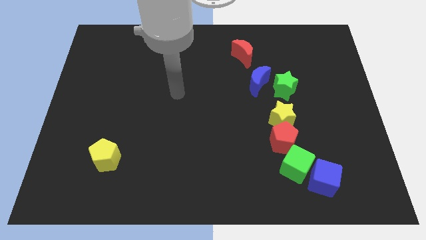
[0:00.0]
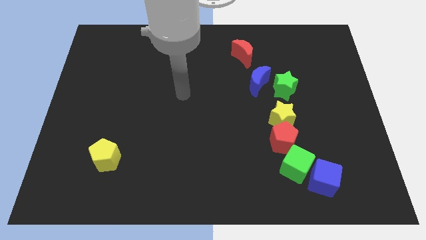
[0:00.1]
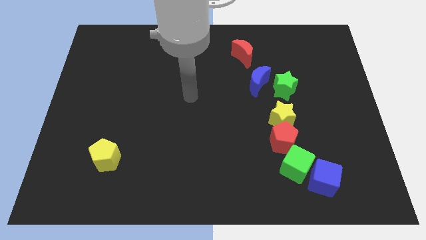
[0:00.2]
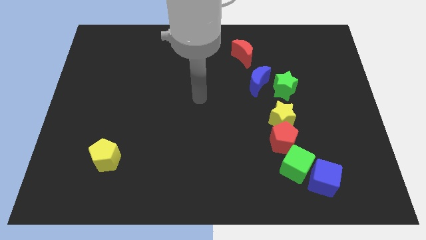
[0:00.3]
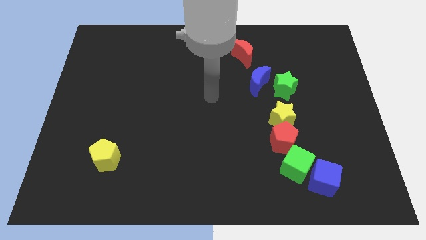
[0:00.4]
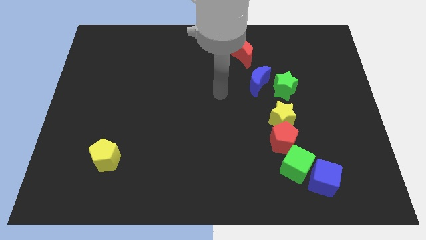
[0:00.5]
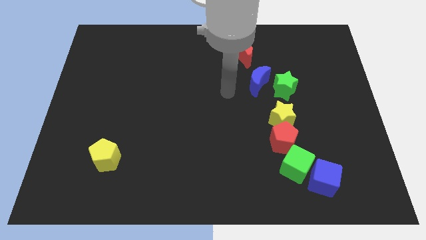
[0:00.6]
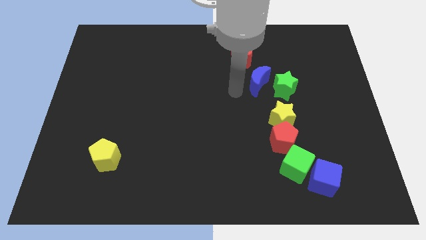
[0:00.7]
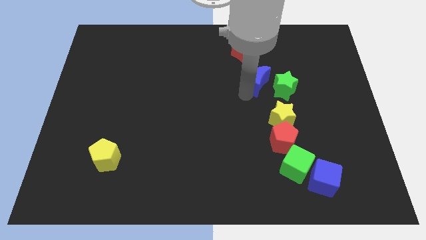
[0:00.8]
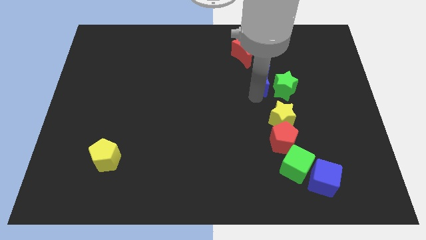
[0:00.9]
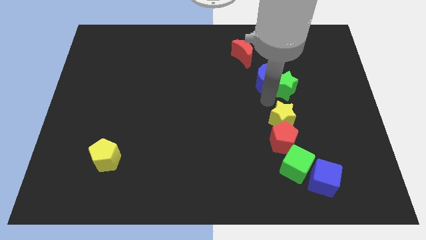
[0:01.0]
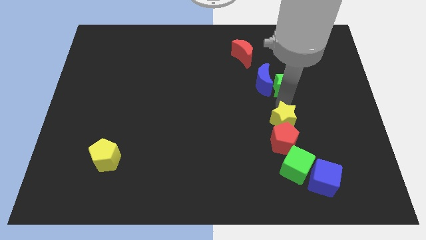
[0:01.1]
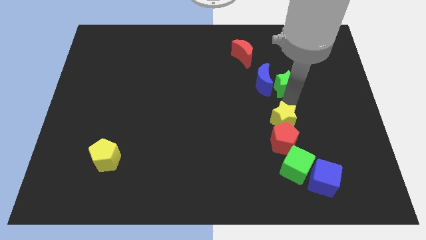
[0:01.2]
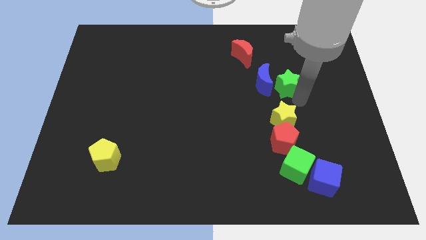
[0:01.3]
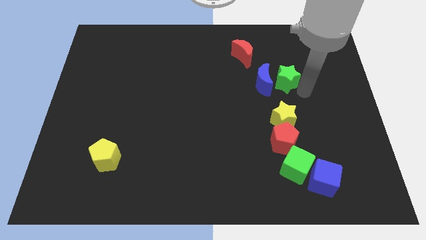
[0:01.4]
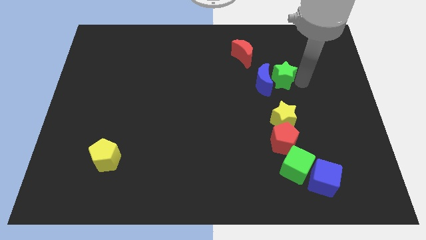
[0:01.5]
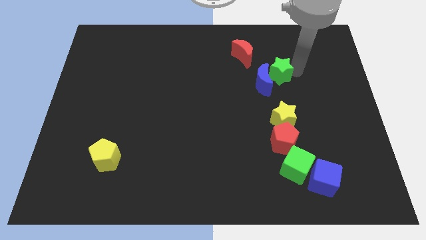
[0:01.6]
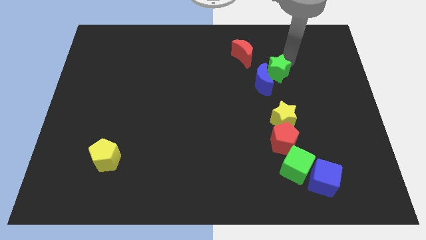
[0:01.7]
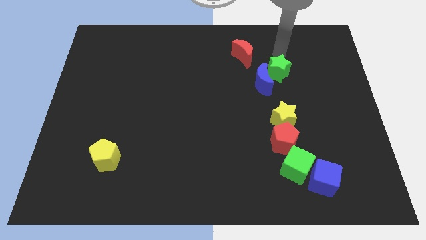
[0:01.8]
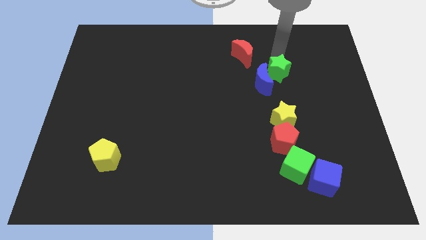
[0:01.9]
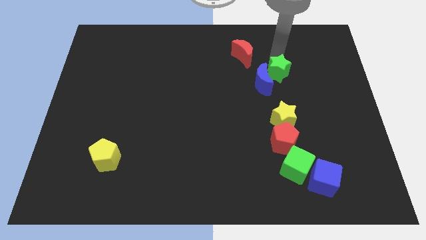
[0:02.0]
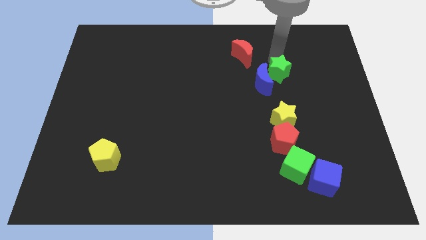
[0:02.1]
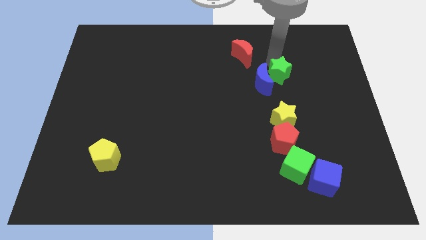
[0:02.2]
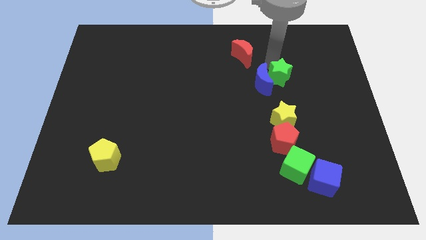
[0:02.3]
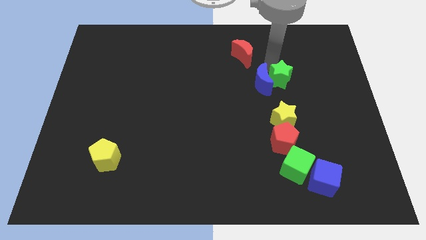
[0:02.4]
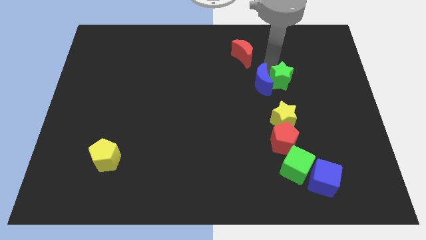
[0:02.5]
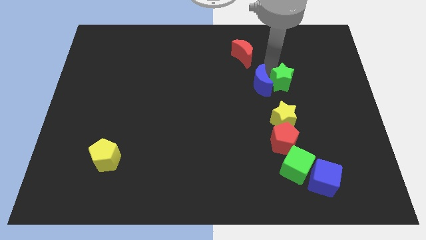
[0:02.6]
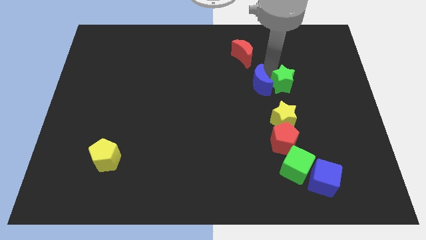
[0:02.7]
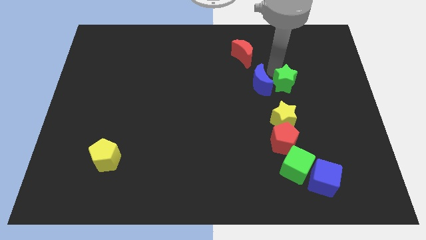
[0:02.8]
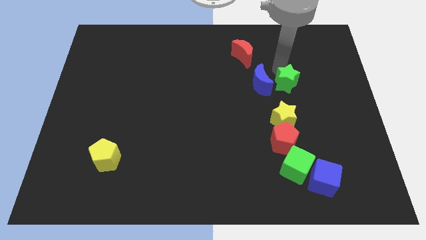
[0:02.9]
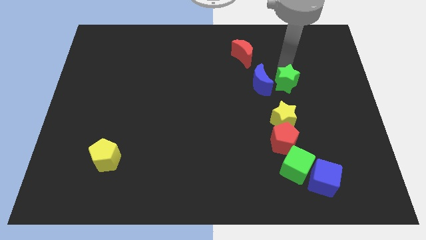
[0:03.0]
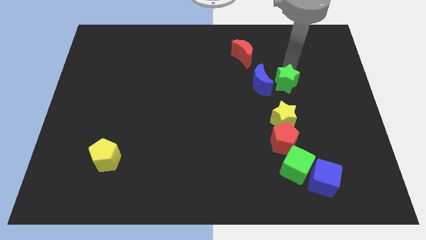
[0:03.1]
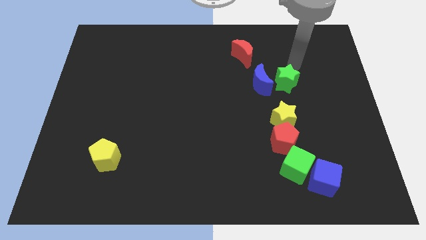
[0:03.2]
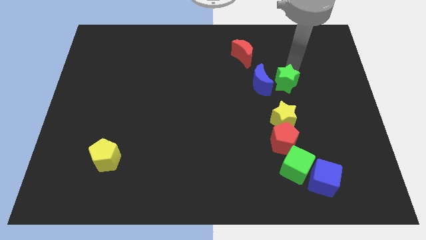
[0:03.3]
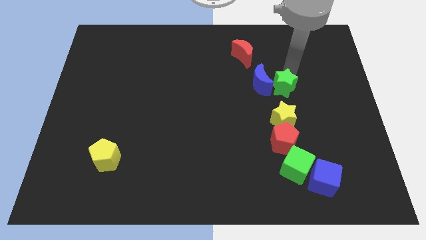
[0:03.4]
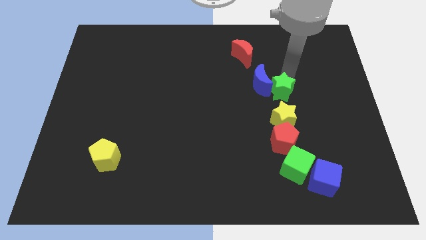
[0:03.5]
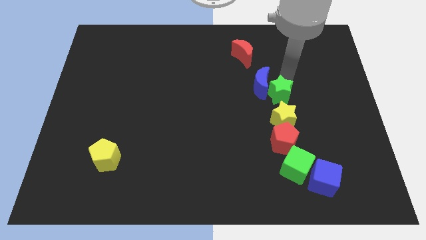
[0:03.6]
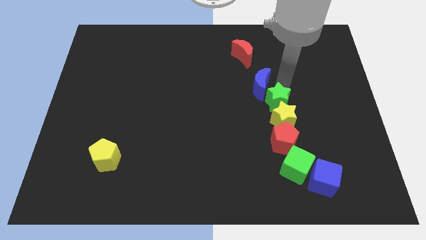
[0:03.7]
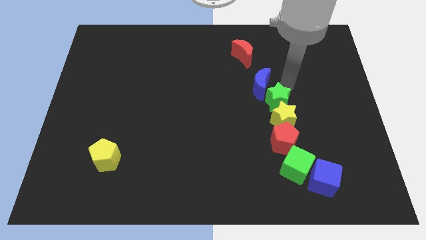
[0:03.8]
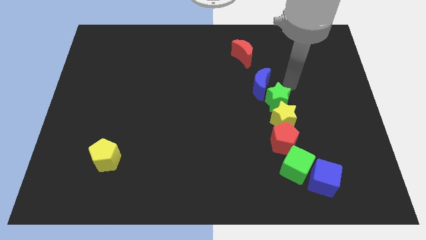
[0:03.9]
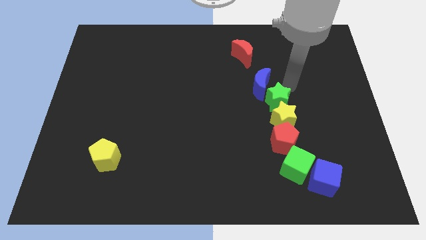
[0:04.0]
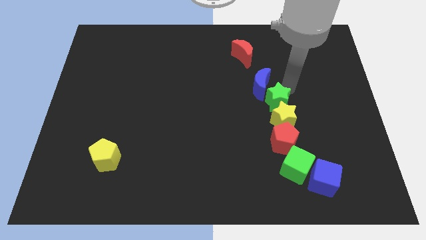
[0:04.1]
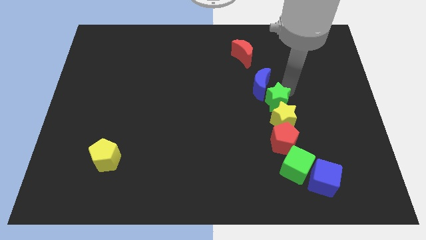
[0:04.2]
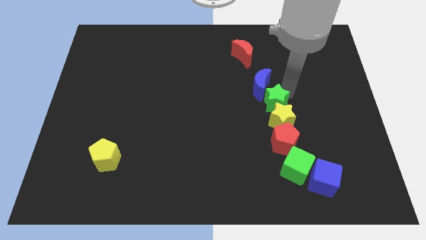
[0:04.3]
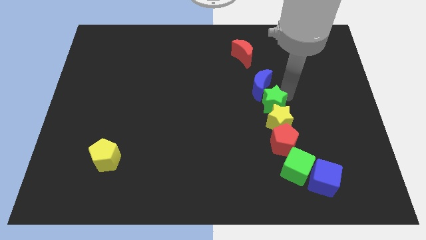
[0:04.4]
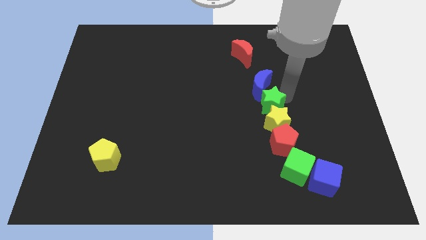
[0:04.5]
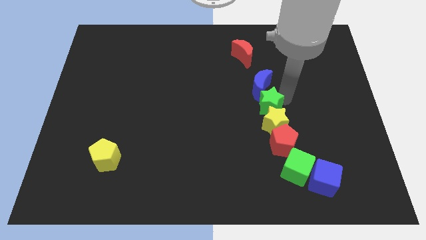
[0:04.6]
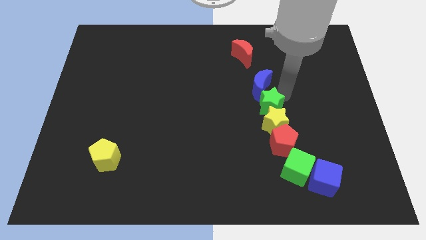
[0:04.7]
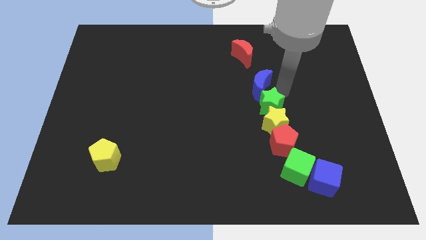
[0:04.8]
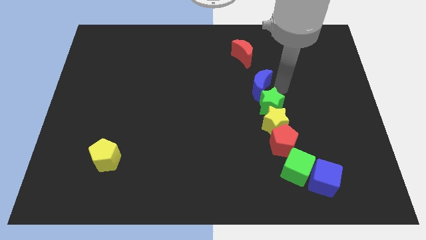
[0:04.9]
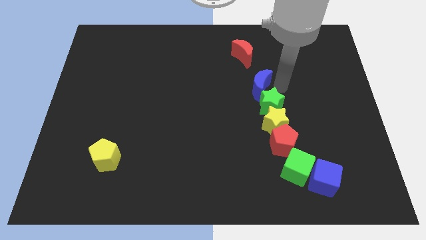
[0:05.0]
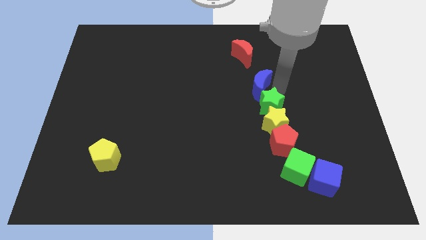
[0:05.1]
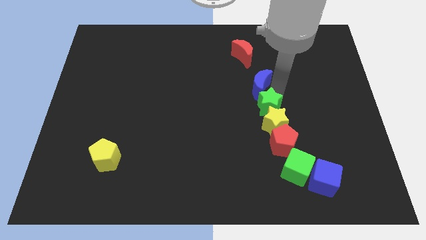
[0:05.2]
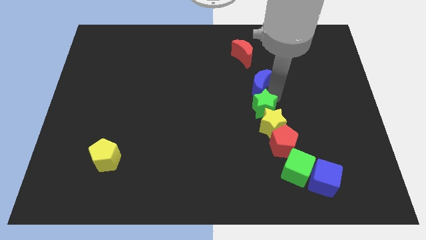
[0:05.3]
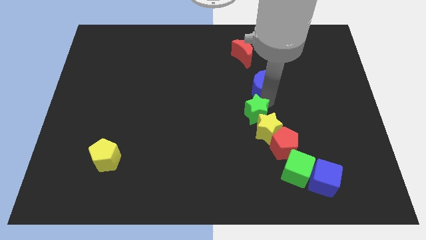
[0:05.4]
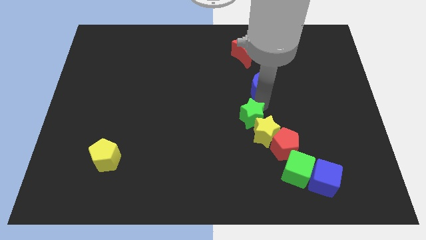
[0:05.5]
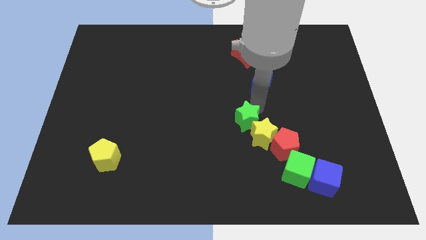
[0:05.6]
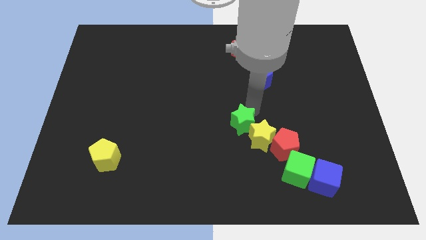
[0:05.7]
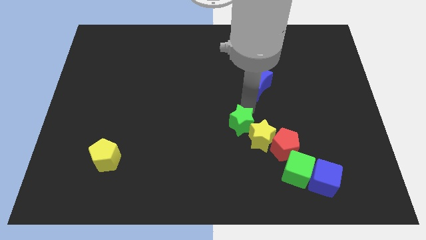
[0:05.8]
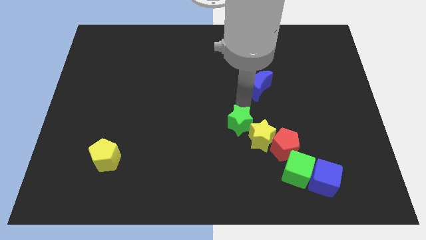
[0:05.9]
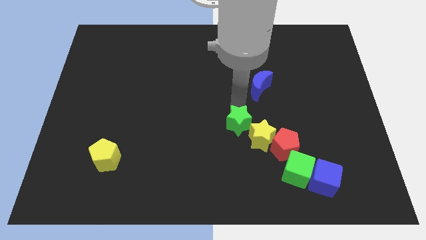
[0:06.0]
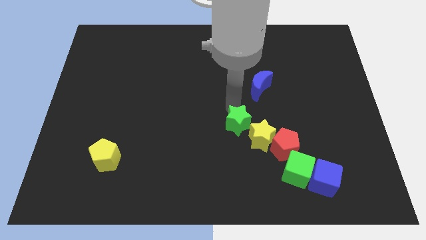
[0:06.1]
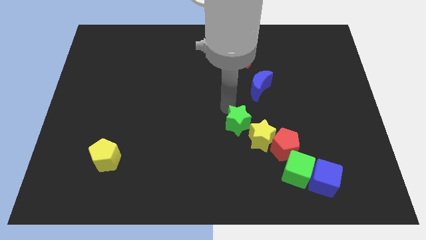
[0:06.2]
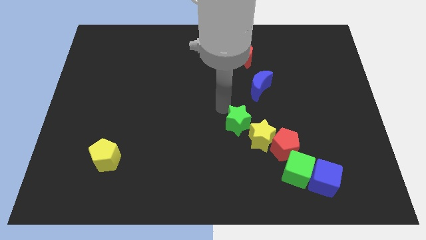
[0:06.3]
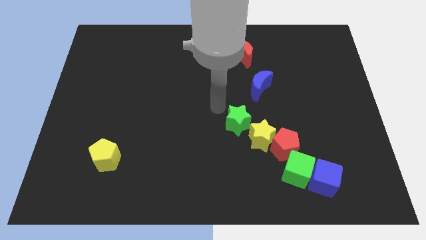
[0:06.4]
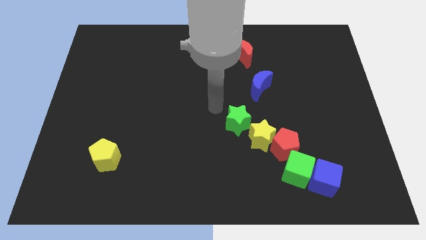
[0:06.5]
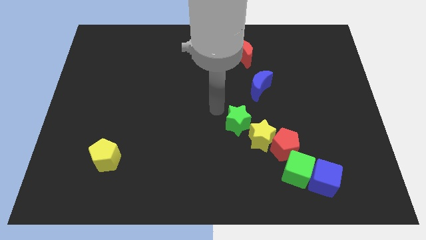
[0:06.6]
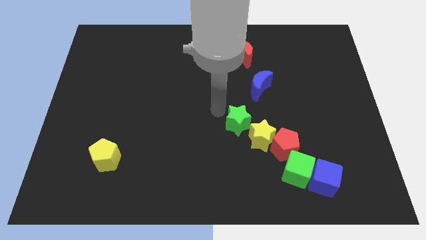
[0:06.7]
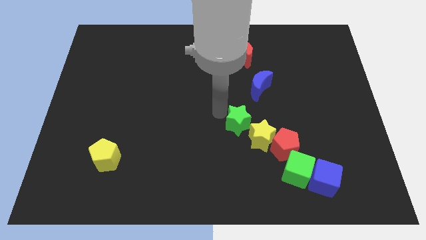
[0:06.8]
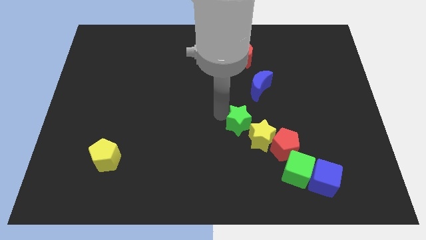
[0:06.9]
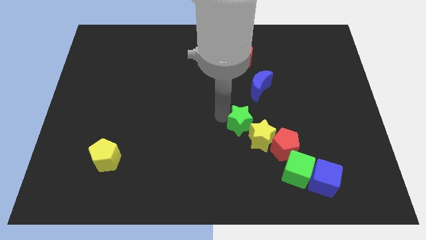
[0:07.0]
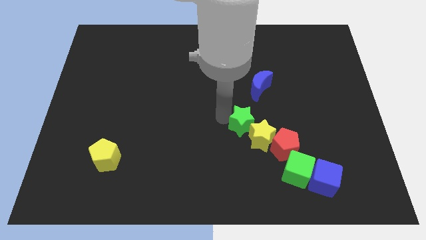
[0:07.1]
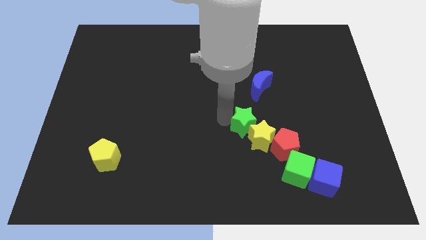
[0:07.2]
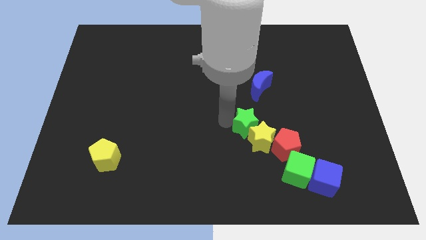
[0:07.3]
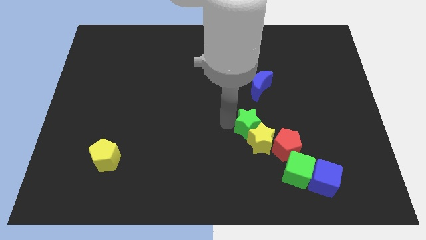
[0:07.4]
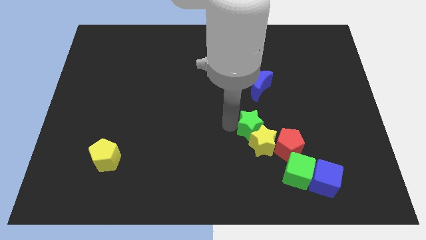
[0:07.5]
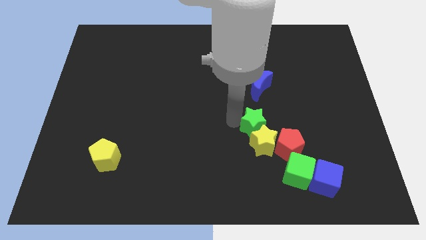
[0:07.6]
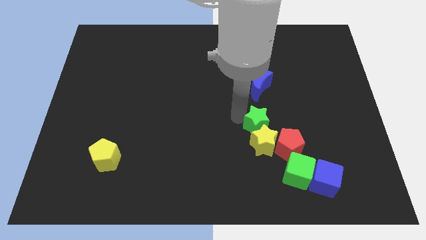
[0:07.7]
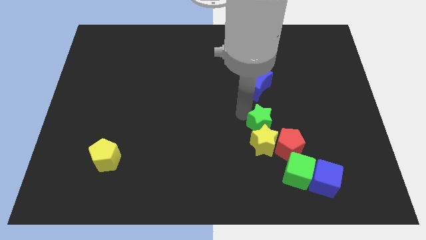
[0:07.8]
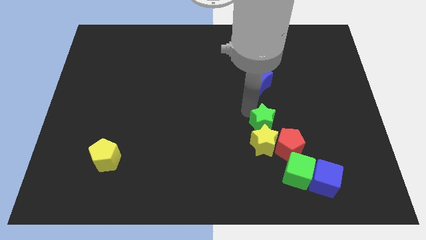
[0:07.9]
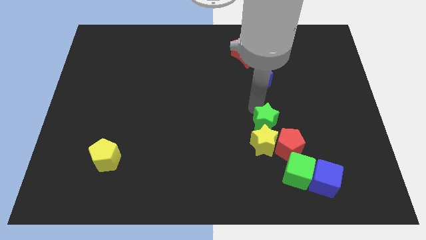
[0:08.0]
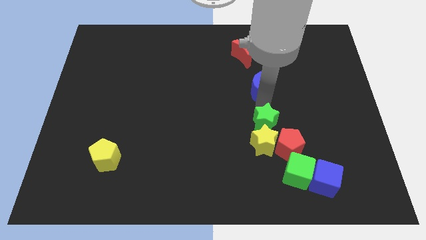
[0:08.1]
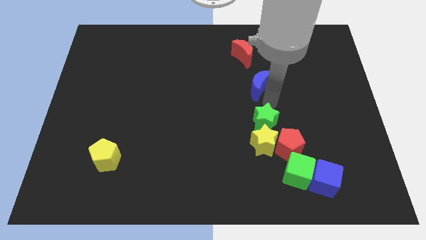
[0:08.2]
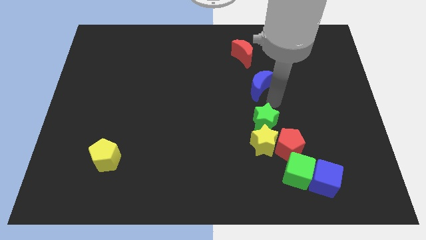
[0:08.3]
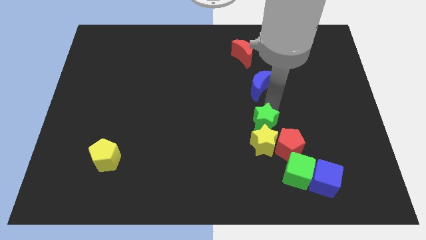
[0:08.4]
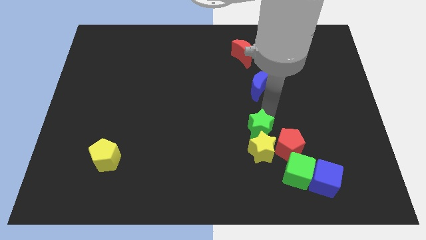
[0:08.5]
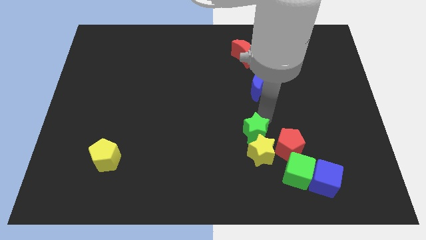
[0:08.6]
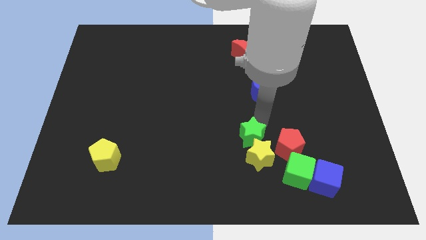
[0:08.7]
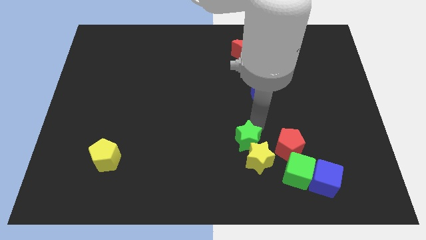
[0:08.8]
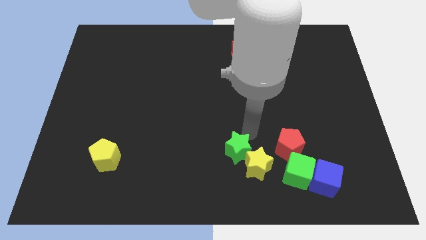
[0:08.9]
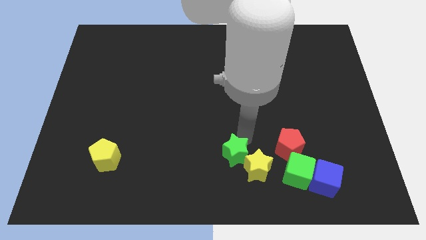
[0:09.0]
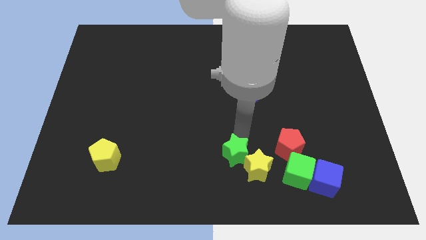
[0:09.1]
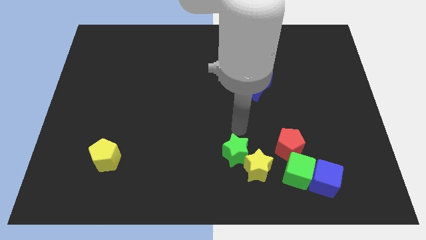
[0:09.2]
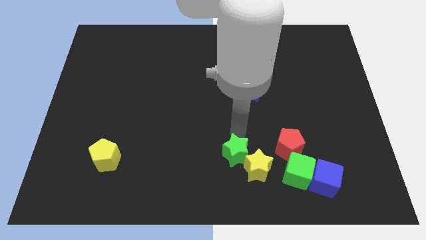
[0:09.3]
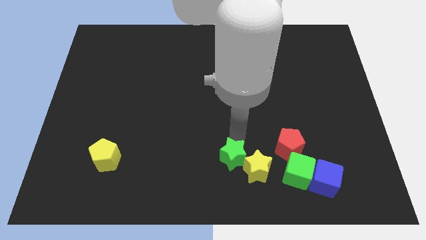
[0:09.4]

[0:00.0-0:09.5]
move the green star to the bottom side
